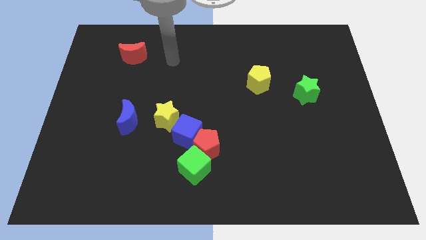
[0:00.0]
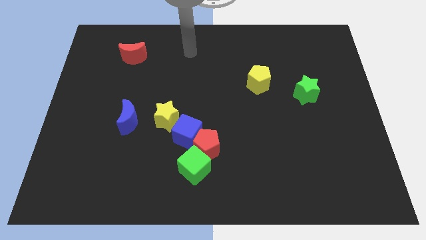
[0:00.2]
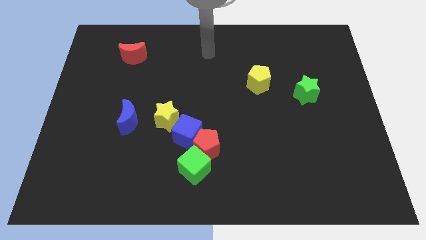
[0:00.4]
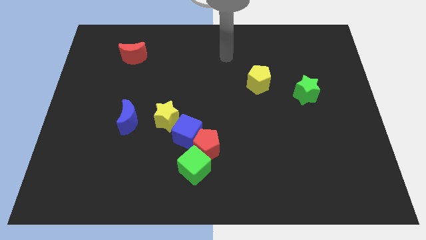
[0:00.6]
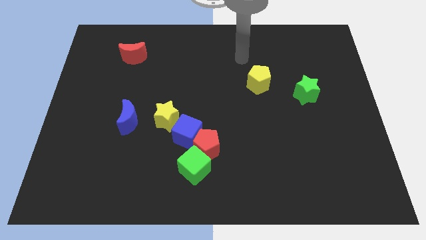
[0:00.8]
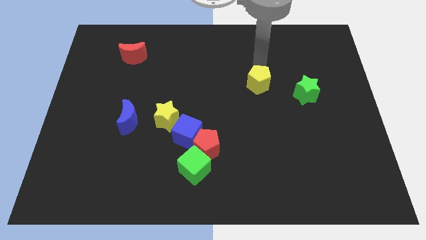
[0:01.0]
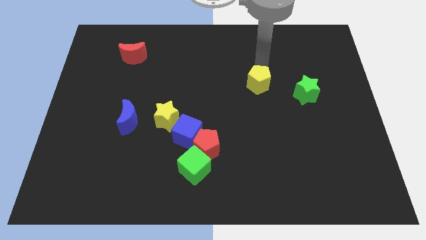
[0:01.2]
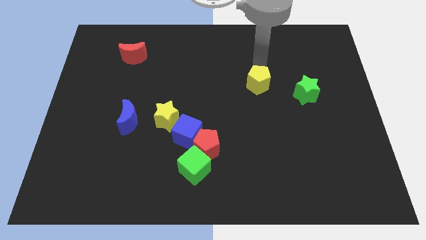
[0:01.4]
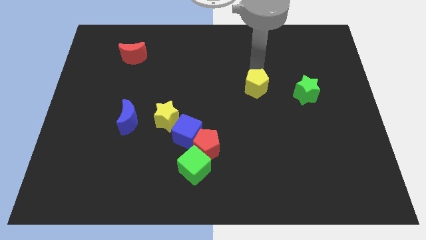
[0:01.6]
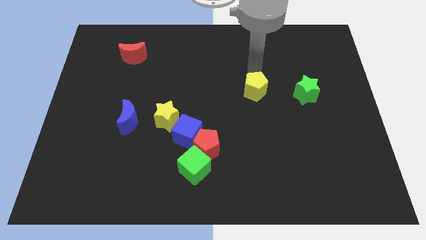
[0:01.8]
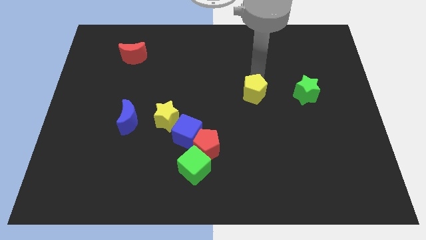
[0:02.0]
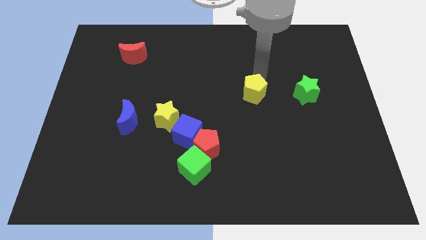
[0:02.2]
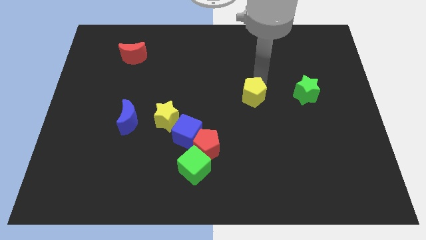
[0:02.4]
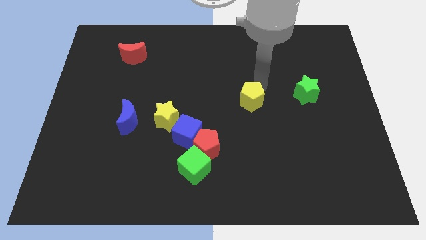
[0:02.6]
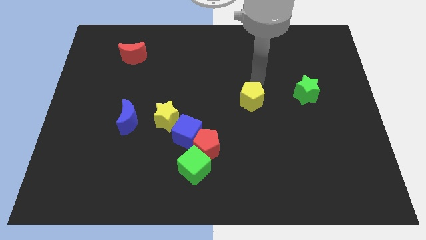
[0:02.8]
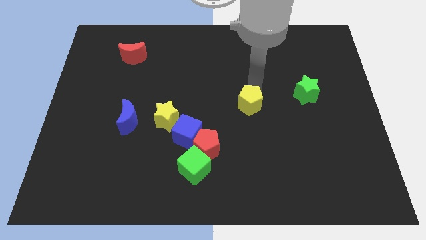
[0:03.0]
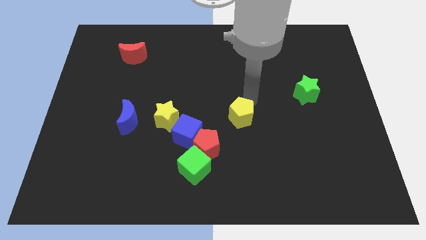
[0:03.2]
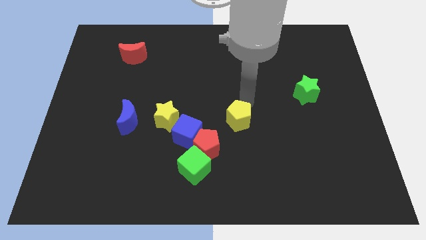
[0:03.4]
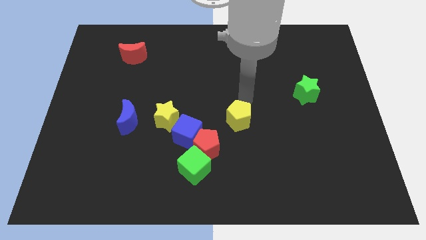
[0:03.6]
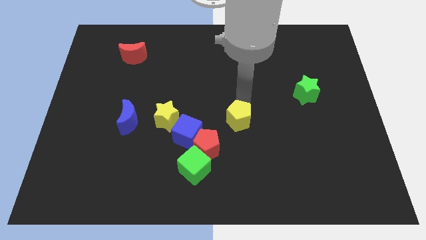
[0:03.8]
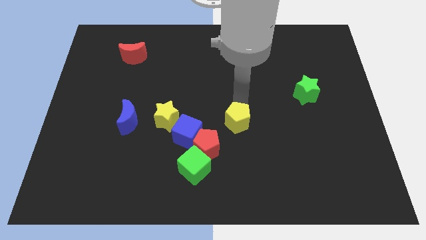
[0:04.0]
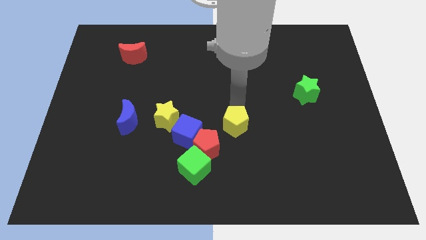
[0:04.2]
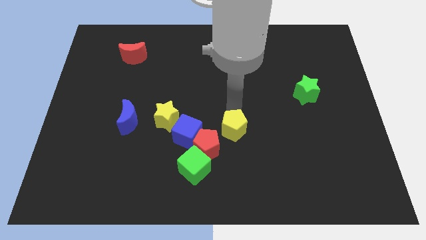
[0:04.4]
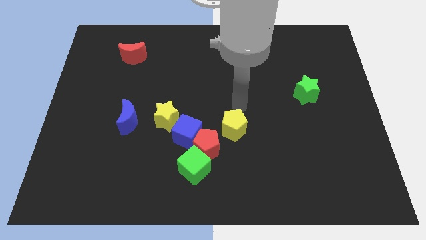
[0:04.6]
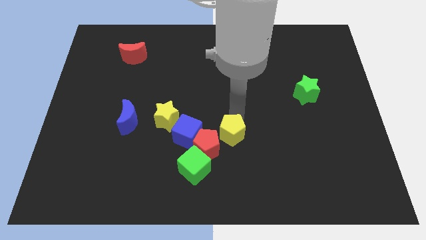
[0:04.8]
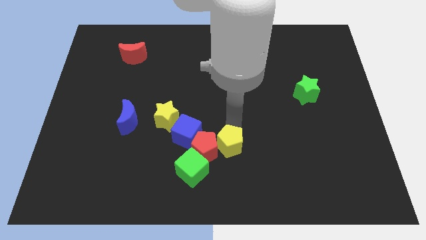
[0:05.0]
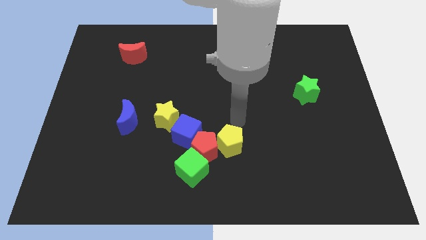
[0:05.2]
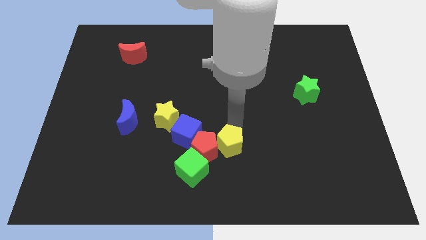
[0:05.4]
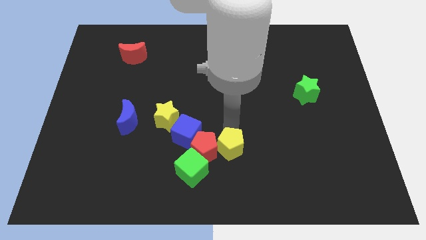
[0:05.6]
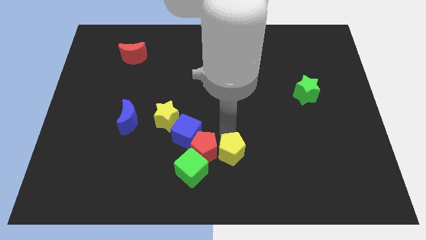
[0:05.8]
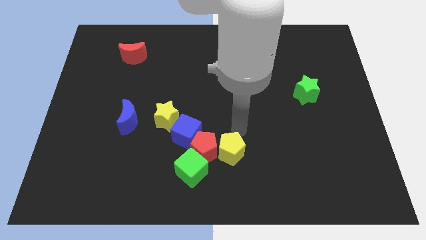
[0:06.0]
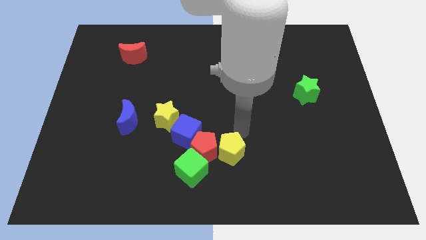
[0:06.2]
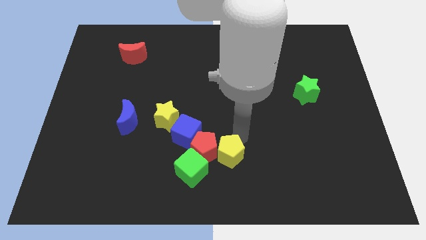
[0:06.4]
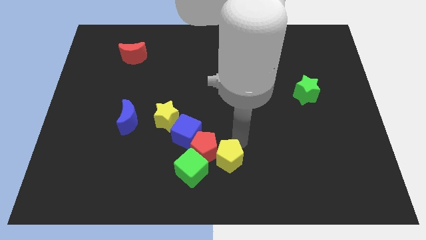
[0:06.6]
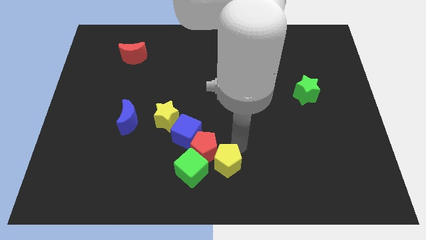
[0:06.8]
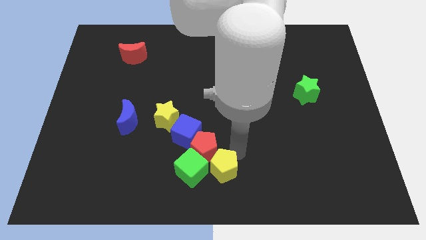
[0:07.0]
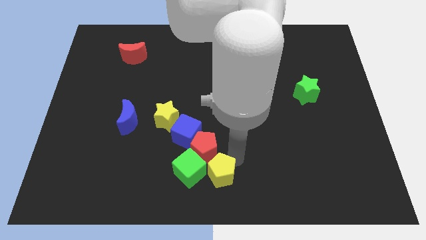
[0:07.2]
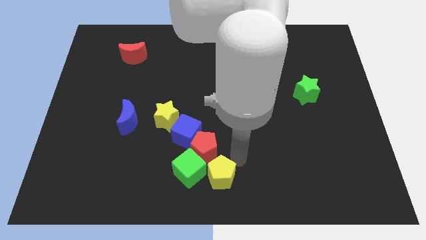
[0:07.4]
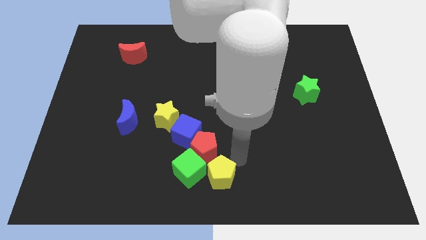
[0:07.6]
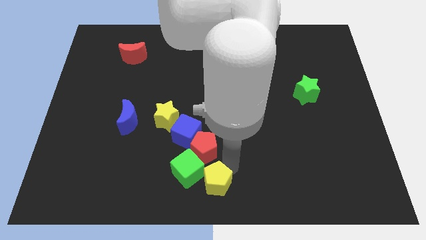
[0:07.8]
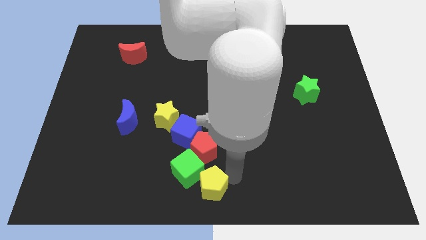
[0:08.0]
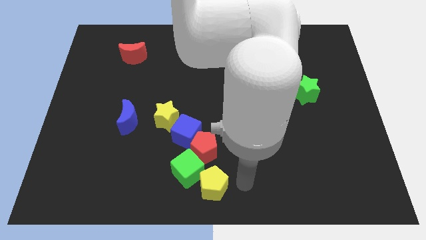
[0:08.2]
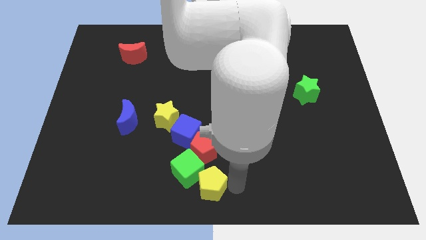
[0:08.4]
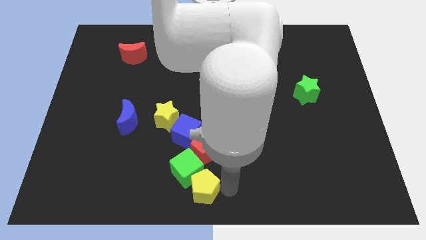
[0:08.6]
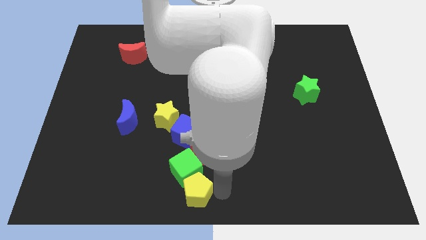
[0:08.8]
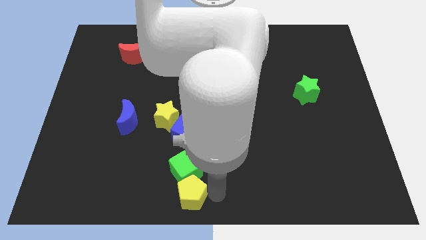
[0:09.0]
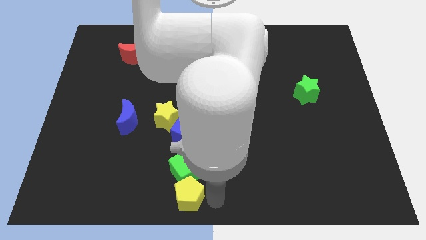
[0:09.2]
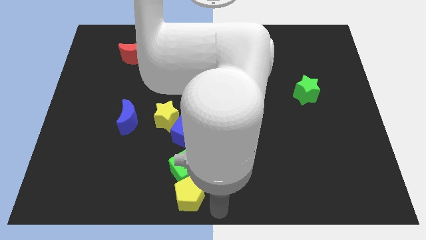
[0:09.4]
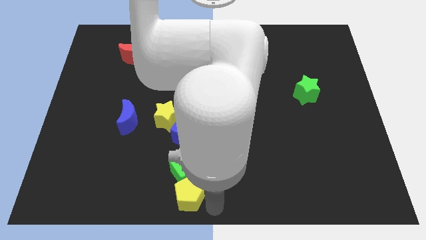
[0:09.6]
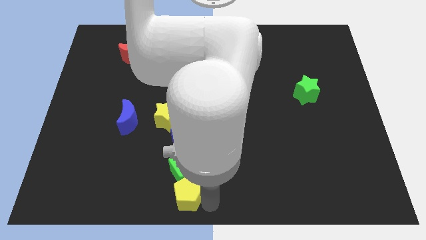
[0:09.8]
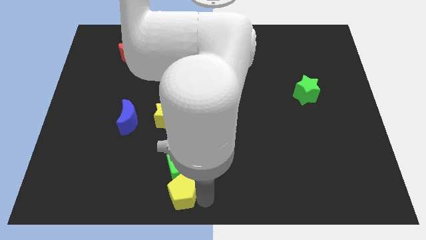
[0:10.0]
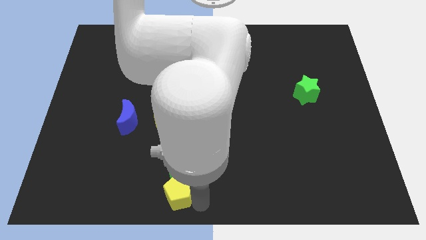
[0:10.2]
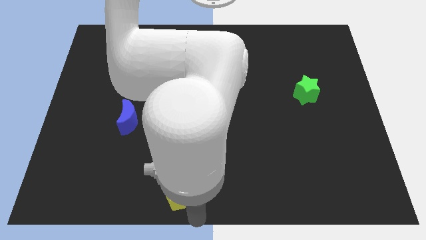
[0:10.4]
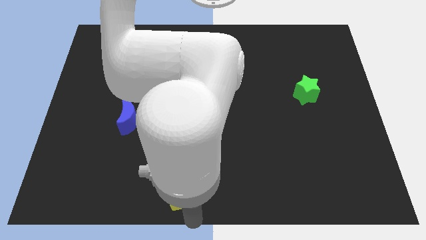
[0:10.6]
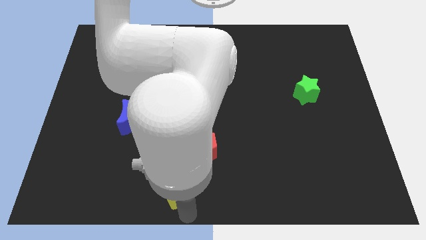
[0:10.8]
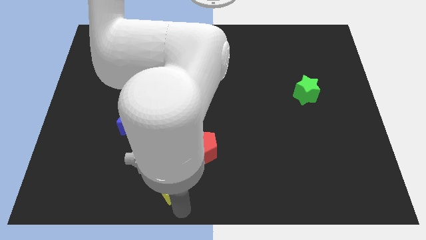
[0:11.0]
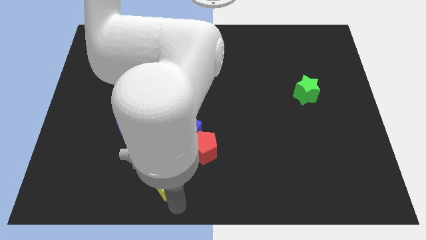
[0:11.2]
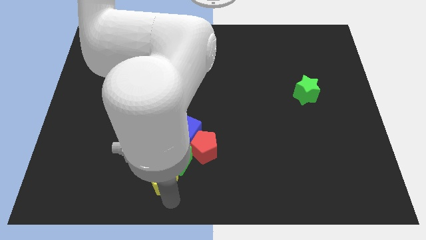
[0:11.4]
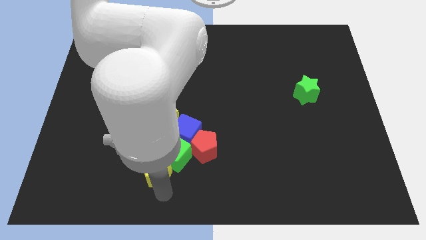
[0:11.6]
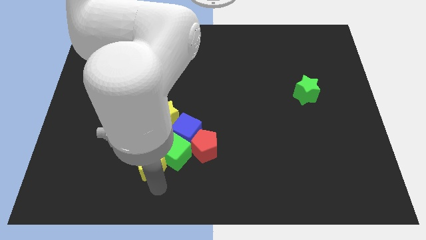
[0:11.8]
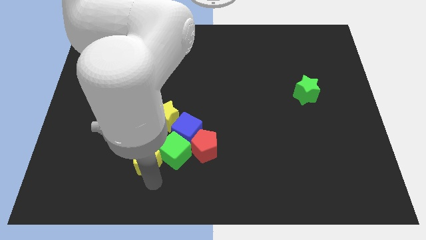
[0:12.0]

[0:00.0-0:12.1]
push the yellow pentagon to the bottom right of the blue moon

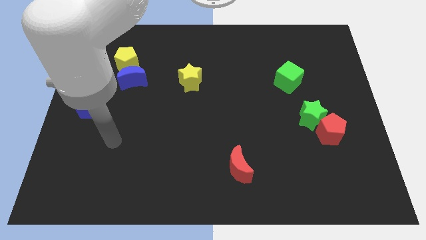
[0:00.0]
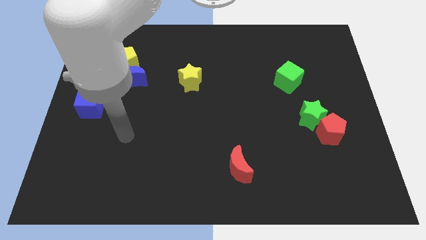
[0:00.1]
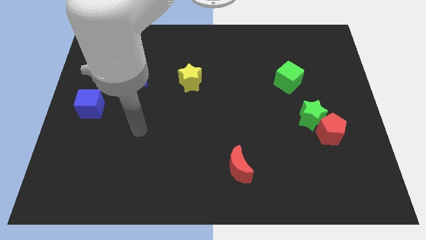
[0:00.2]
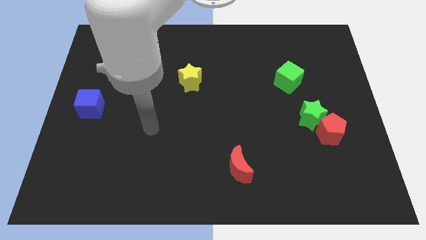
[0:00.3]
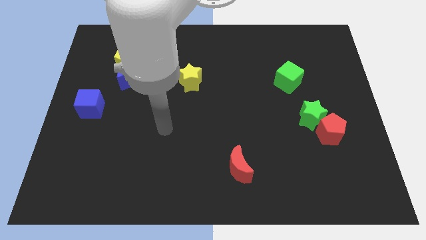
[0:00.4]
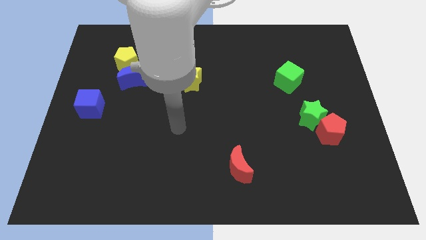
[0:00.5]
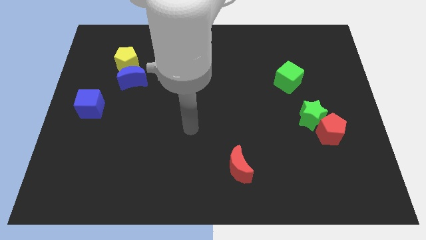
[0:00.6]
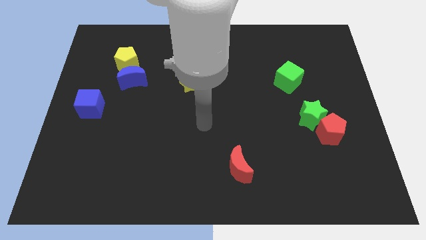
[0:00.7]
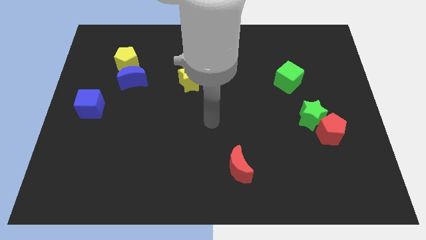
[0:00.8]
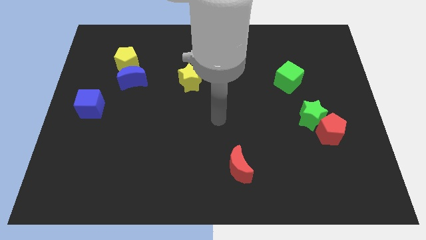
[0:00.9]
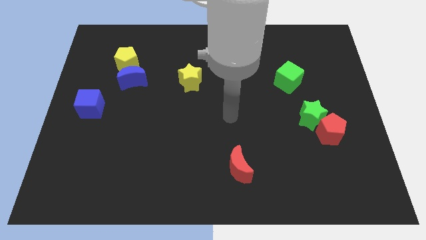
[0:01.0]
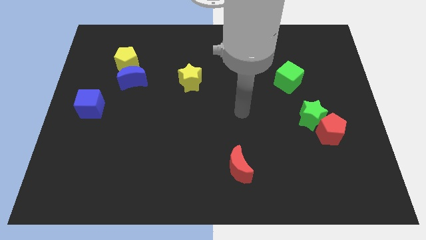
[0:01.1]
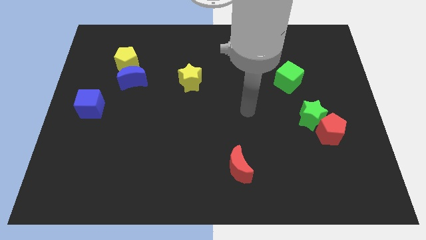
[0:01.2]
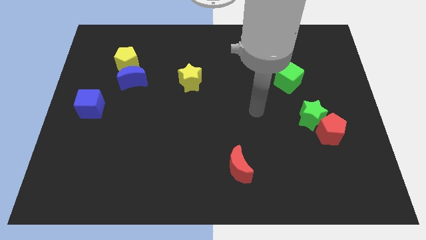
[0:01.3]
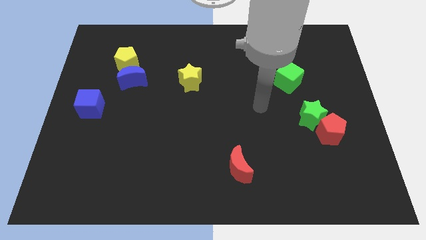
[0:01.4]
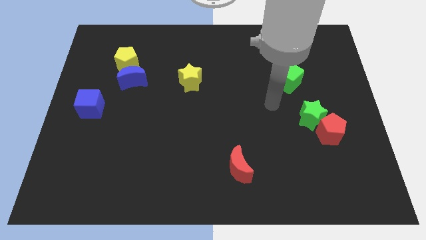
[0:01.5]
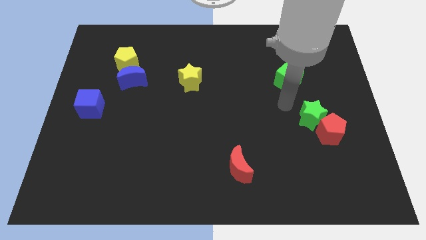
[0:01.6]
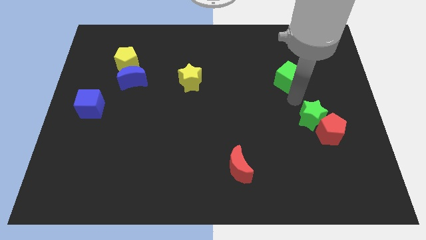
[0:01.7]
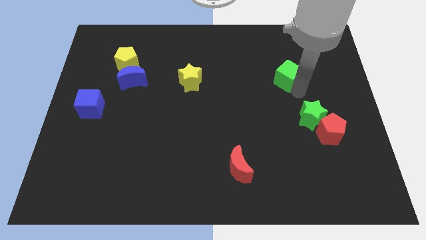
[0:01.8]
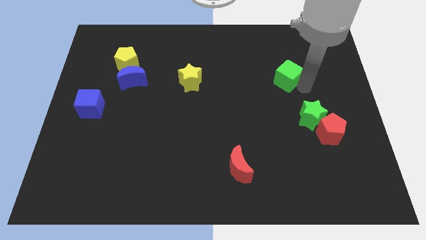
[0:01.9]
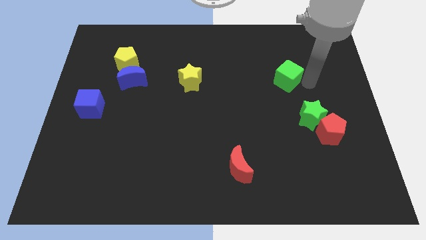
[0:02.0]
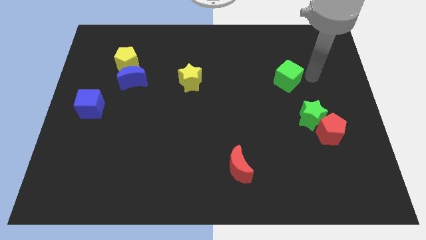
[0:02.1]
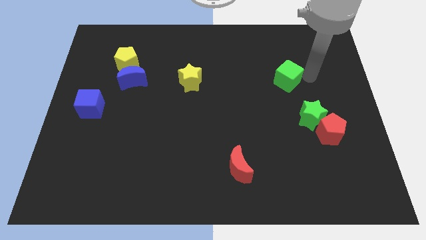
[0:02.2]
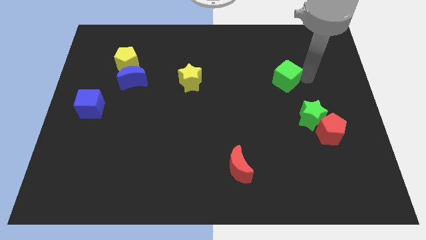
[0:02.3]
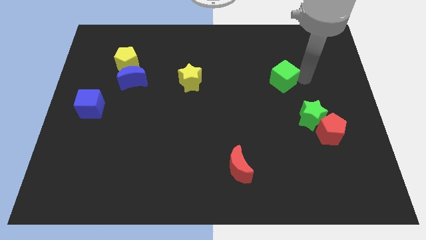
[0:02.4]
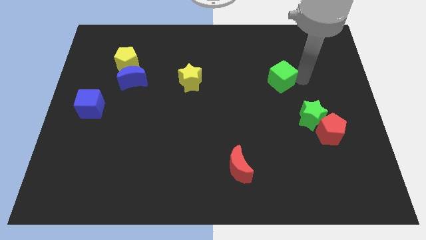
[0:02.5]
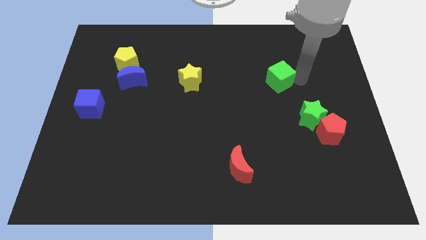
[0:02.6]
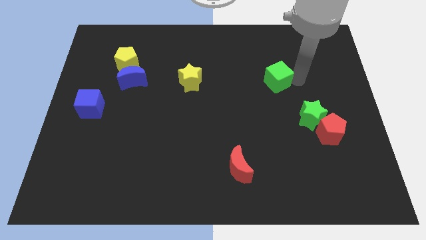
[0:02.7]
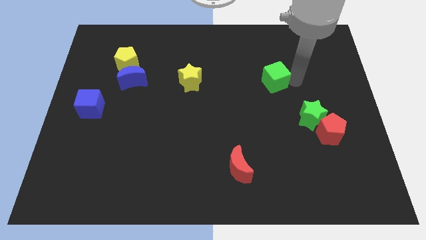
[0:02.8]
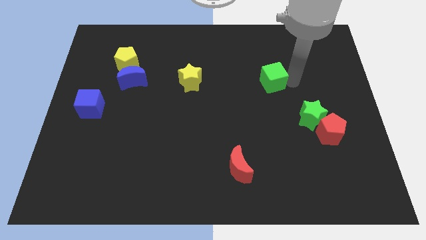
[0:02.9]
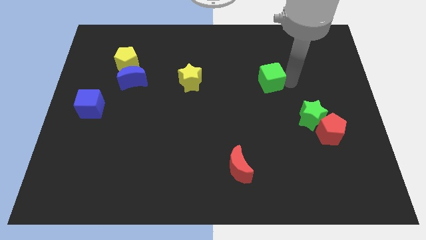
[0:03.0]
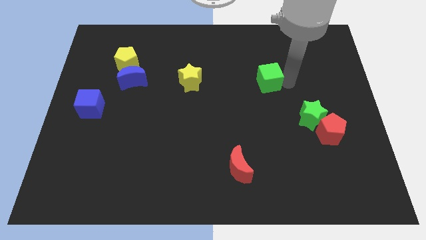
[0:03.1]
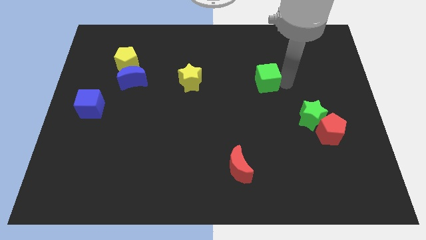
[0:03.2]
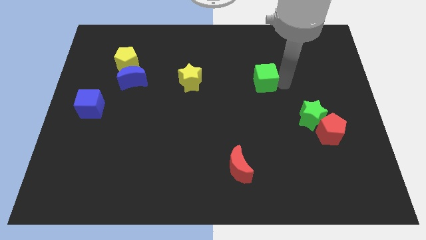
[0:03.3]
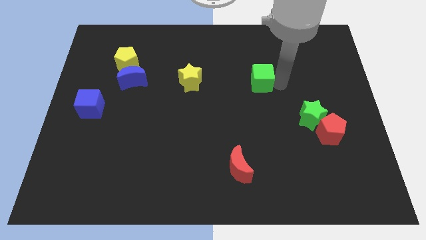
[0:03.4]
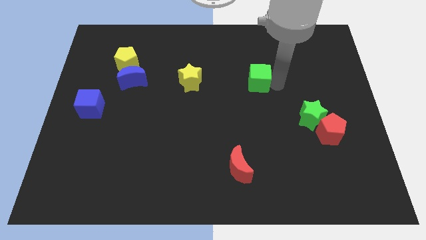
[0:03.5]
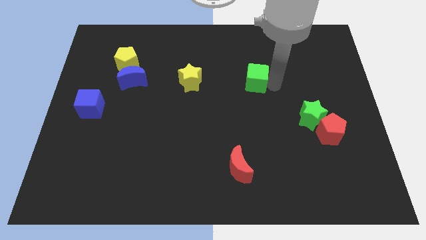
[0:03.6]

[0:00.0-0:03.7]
move the green cube just right of the yellow star
